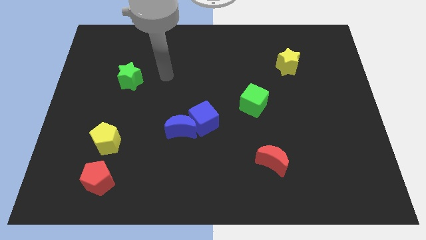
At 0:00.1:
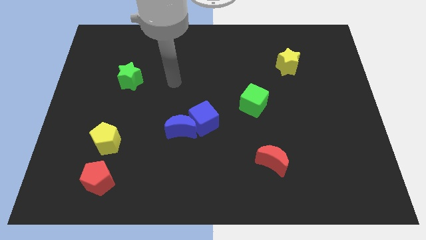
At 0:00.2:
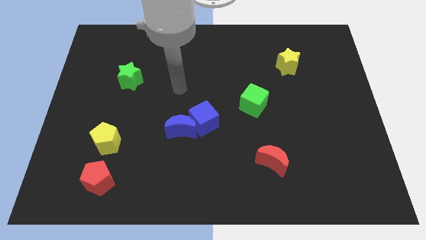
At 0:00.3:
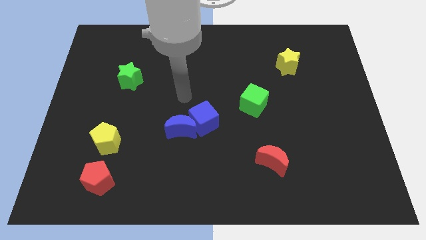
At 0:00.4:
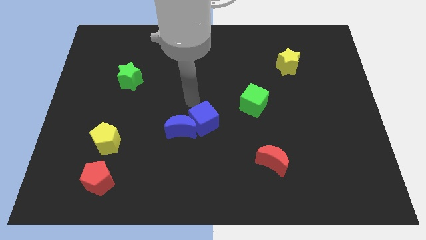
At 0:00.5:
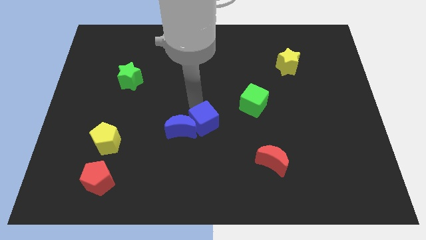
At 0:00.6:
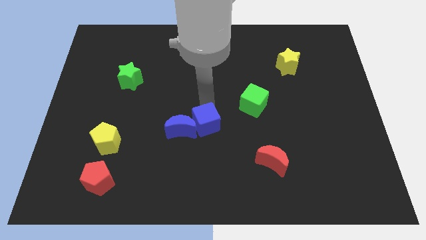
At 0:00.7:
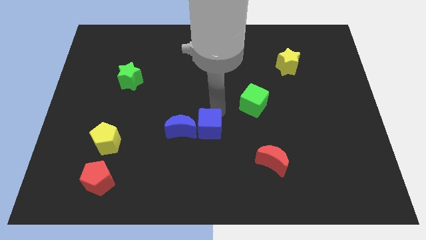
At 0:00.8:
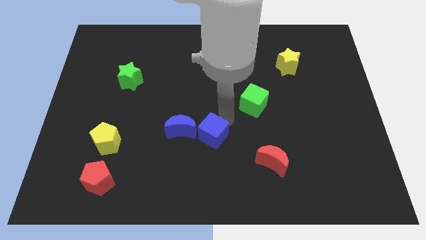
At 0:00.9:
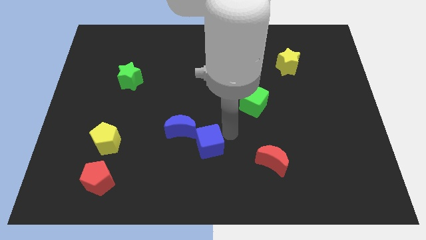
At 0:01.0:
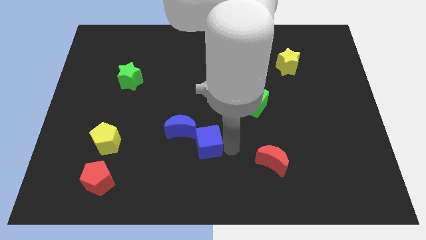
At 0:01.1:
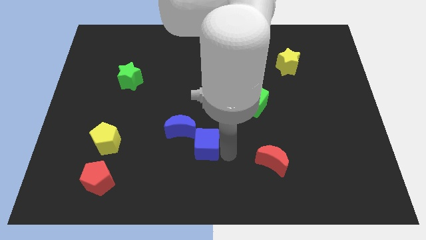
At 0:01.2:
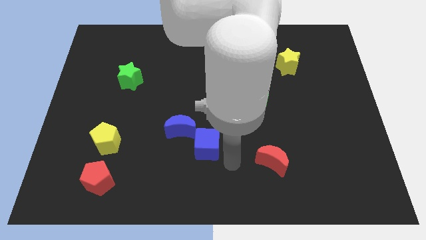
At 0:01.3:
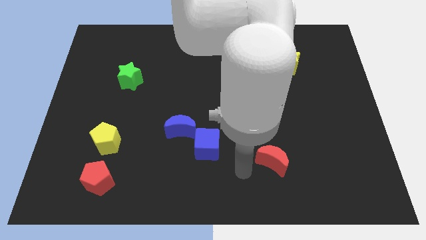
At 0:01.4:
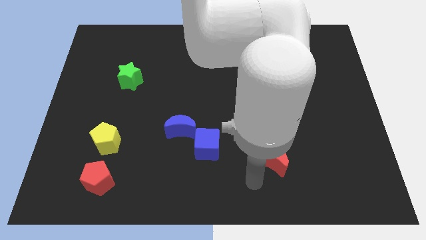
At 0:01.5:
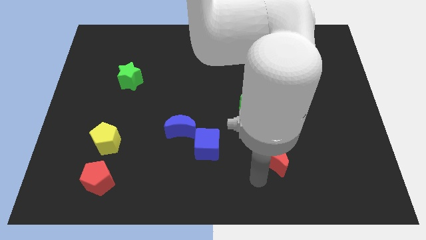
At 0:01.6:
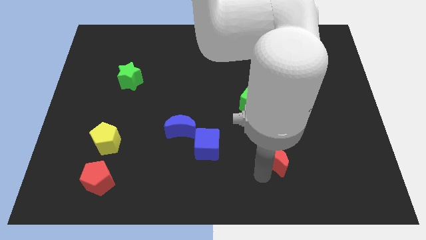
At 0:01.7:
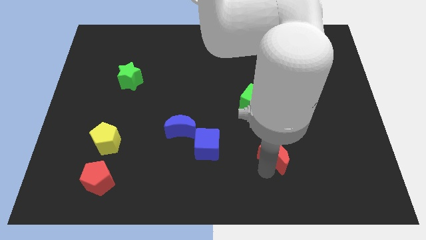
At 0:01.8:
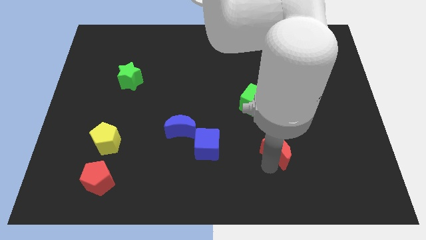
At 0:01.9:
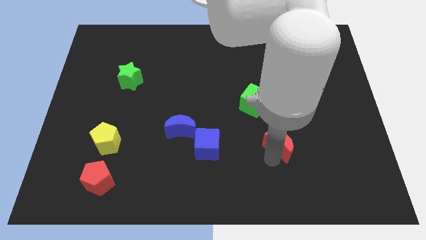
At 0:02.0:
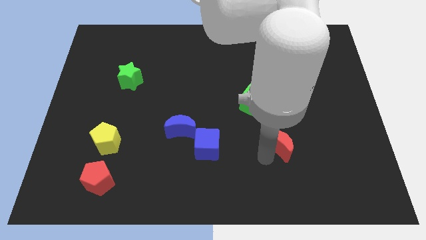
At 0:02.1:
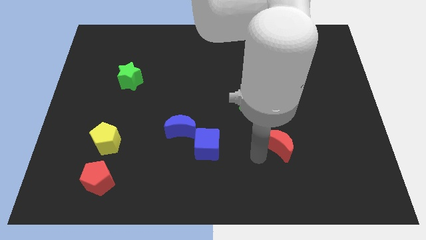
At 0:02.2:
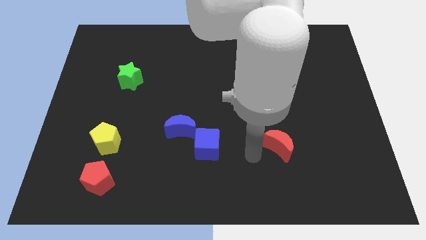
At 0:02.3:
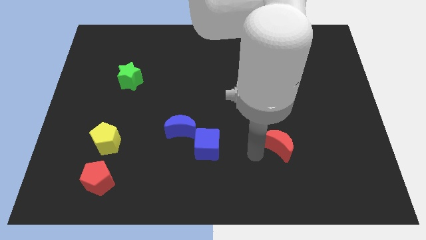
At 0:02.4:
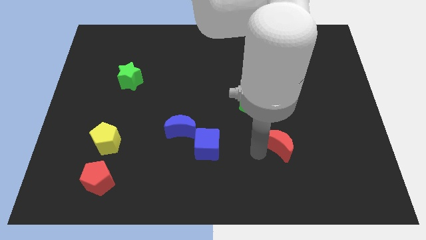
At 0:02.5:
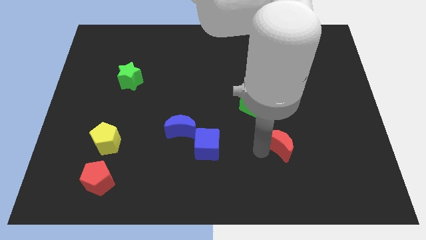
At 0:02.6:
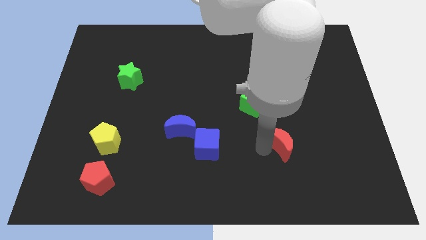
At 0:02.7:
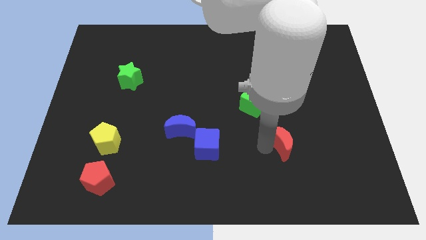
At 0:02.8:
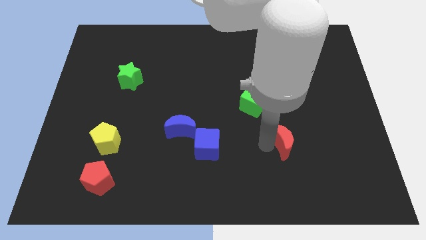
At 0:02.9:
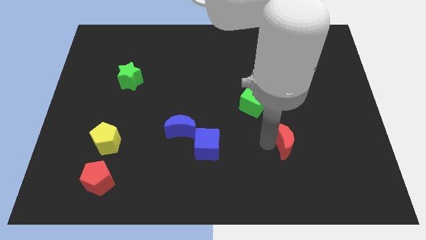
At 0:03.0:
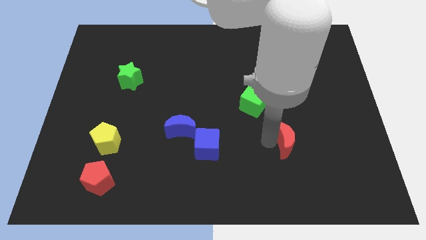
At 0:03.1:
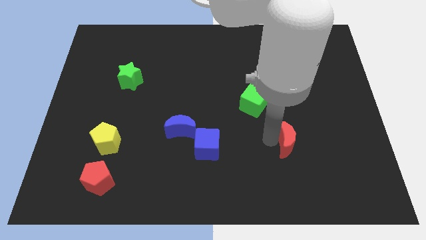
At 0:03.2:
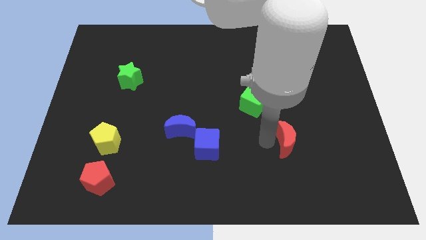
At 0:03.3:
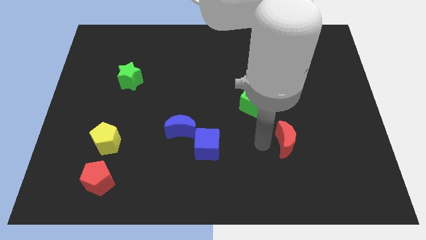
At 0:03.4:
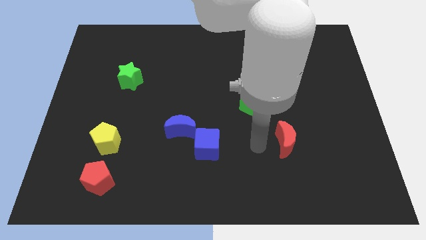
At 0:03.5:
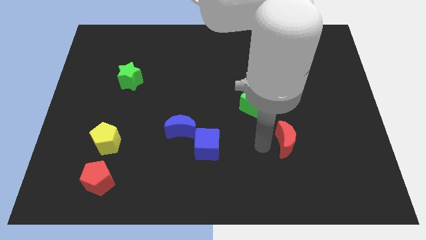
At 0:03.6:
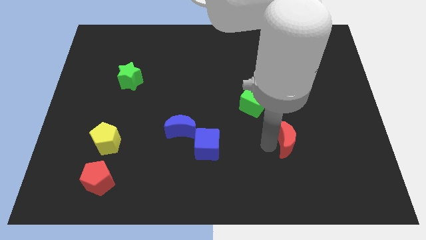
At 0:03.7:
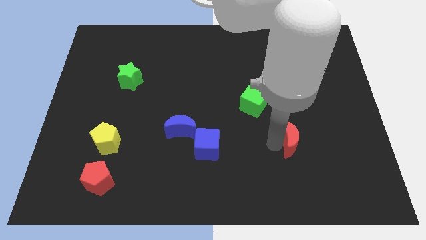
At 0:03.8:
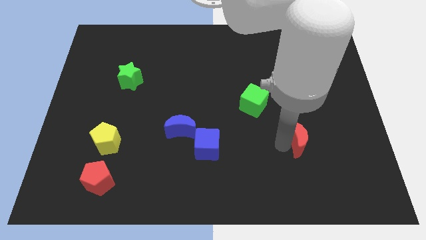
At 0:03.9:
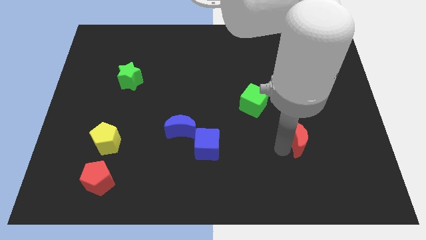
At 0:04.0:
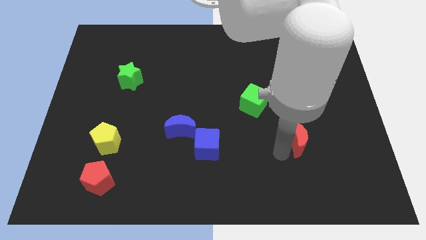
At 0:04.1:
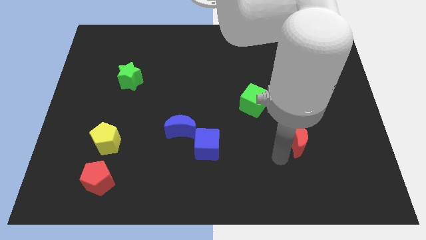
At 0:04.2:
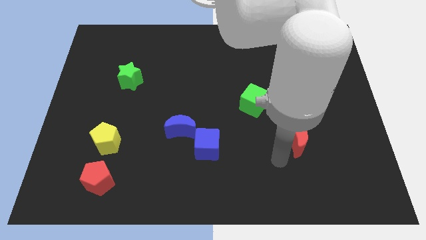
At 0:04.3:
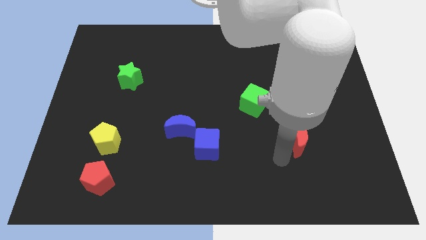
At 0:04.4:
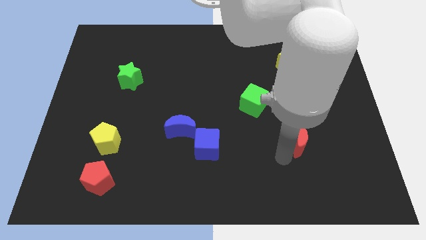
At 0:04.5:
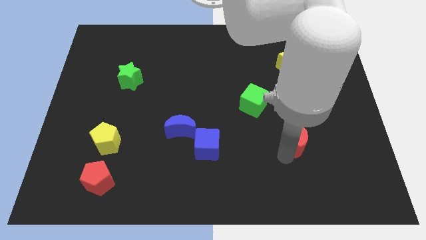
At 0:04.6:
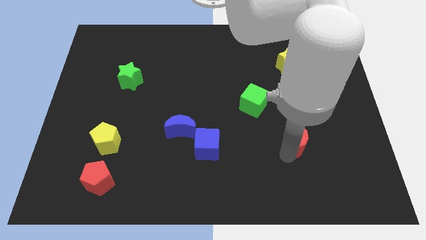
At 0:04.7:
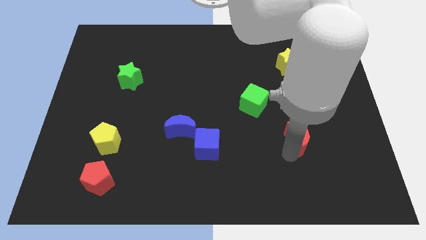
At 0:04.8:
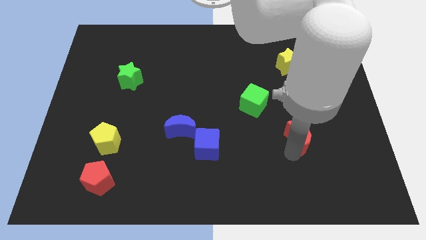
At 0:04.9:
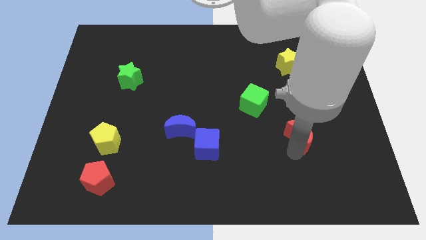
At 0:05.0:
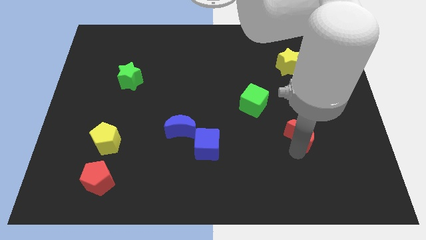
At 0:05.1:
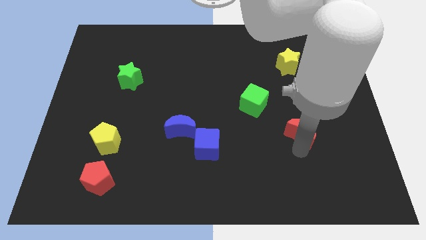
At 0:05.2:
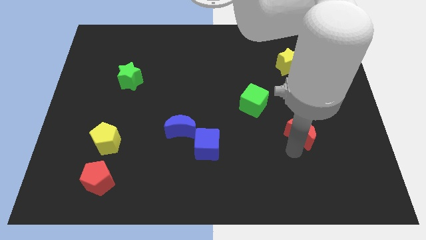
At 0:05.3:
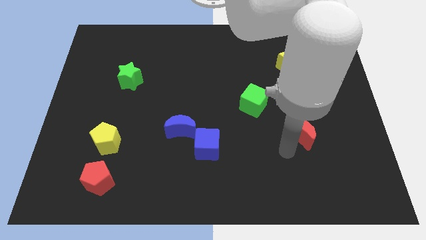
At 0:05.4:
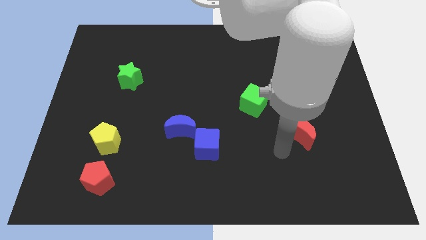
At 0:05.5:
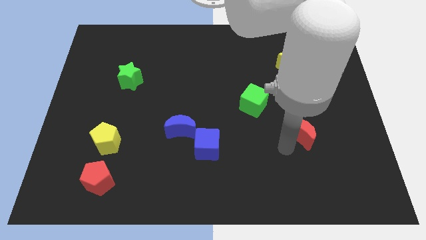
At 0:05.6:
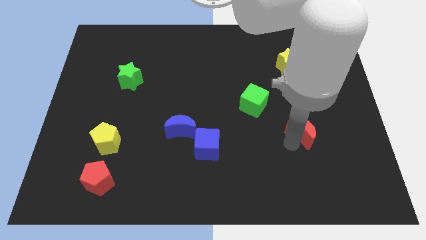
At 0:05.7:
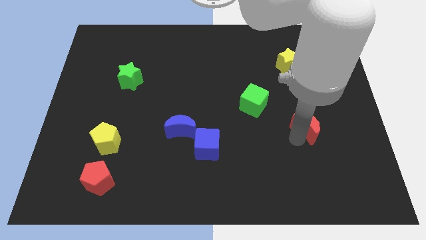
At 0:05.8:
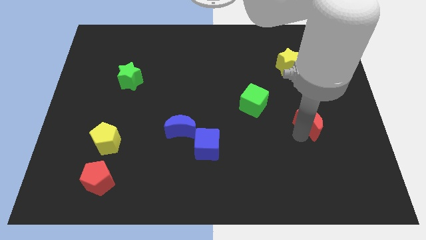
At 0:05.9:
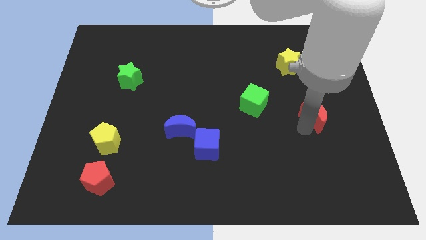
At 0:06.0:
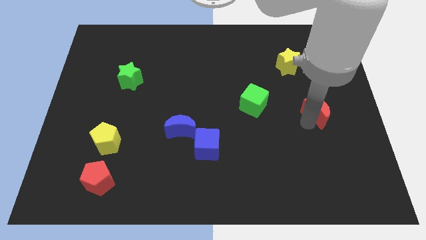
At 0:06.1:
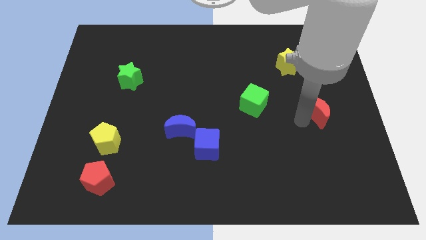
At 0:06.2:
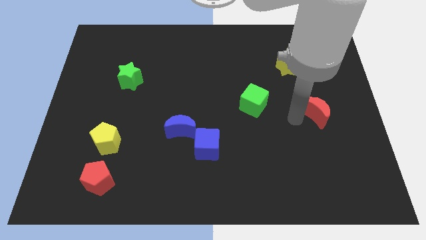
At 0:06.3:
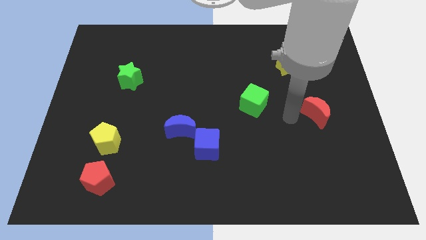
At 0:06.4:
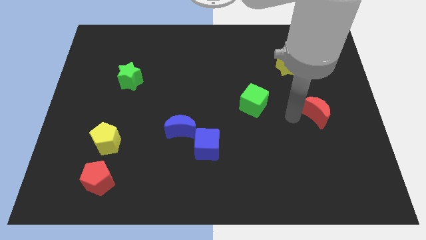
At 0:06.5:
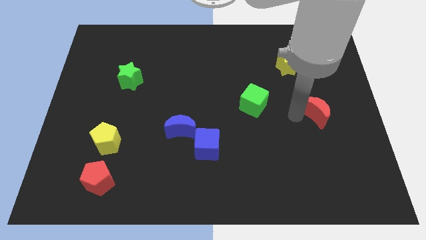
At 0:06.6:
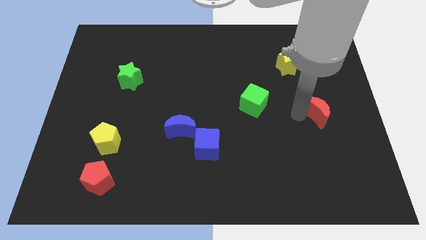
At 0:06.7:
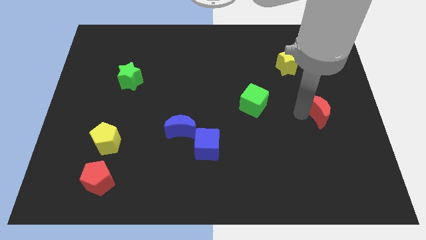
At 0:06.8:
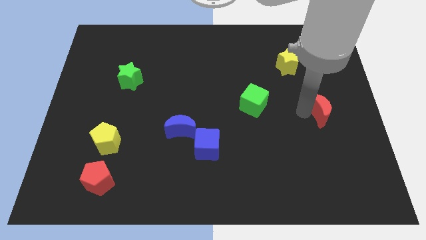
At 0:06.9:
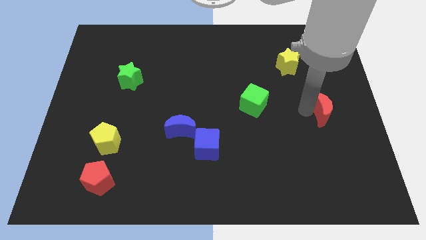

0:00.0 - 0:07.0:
put the red moon to the right side of the board

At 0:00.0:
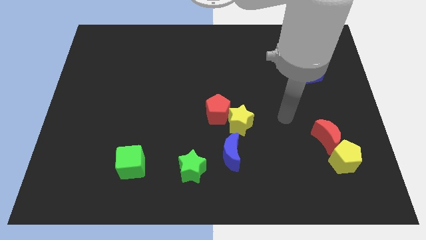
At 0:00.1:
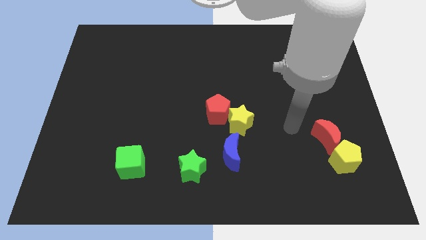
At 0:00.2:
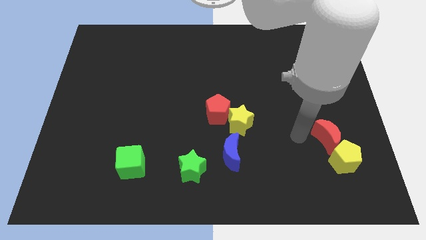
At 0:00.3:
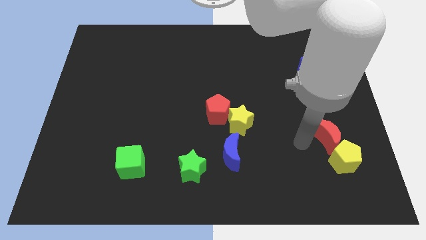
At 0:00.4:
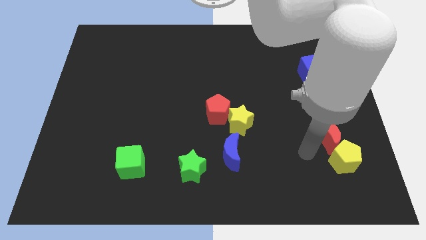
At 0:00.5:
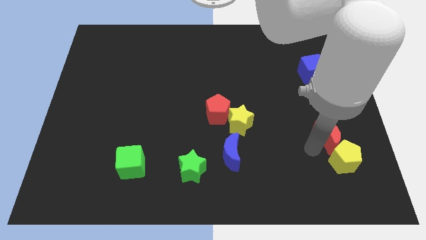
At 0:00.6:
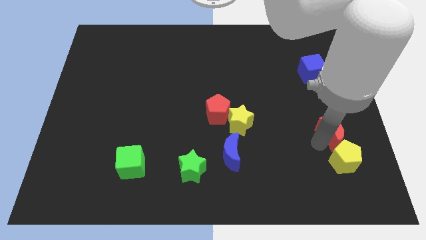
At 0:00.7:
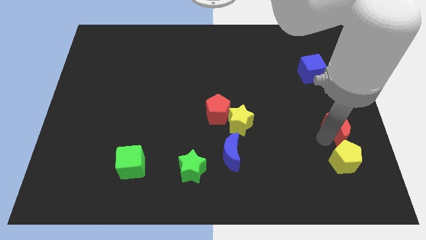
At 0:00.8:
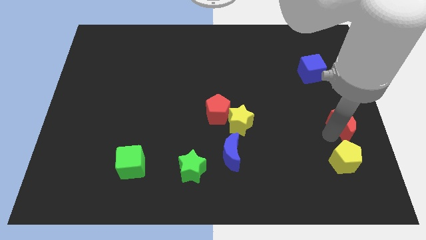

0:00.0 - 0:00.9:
put the red moon to the right side
